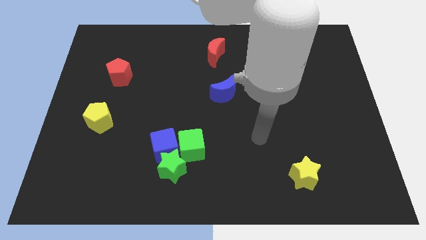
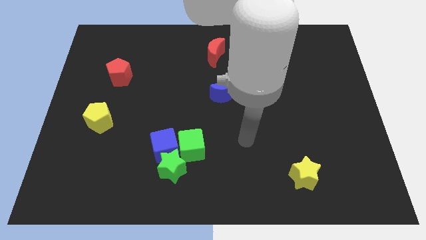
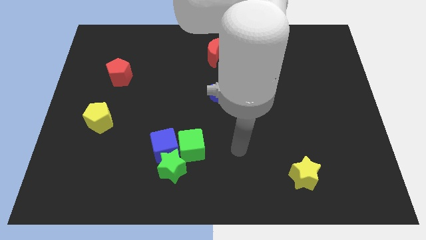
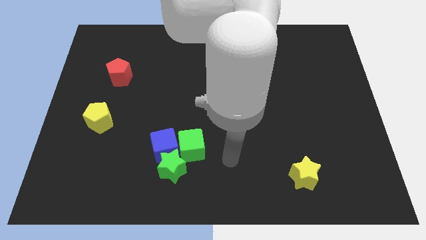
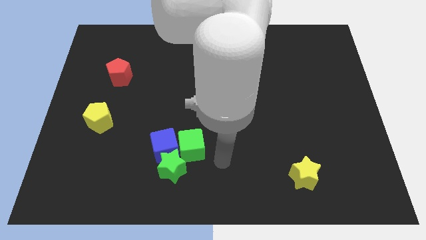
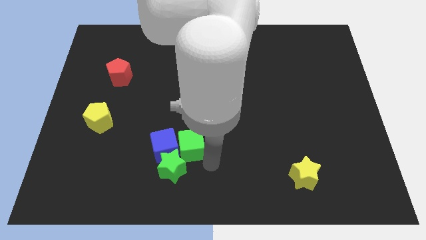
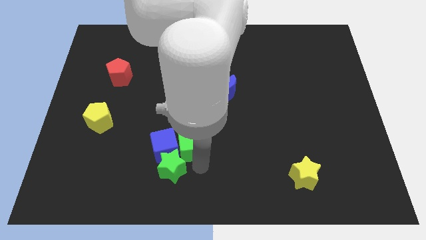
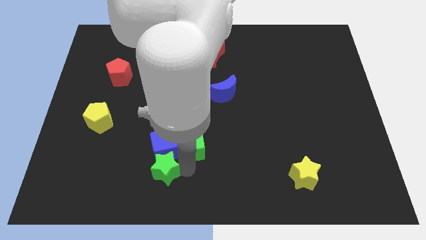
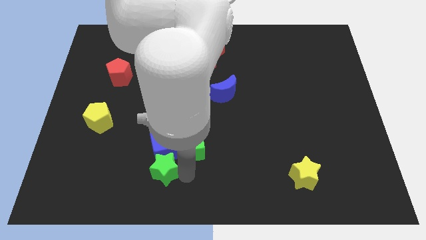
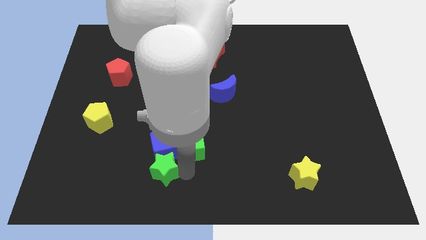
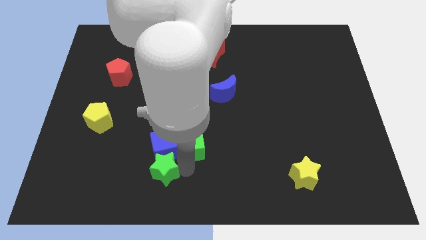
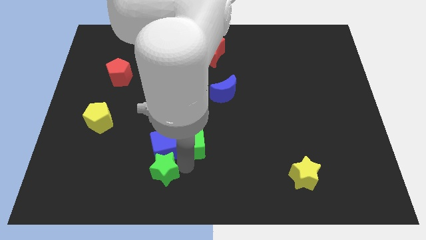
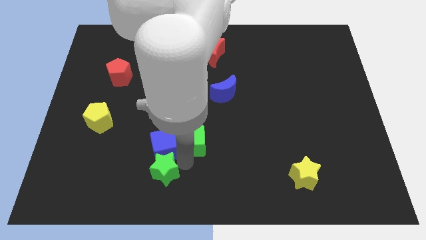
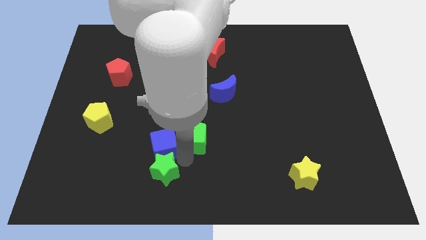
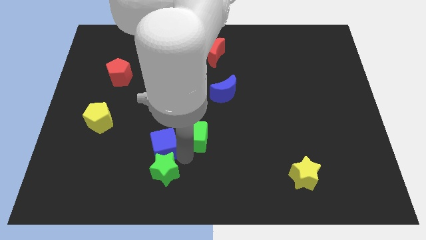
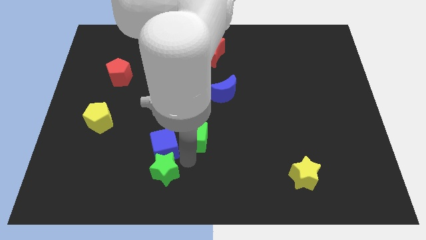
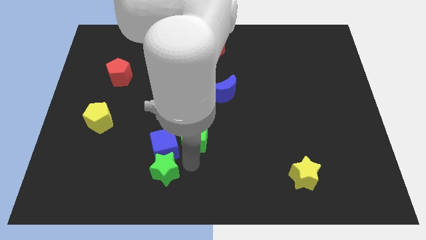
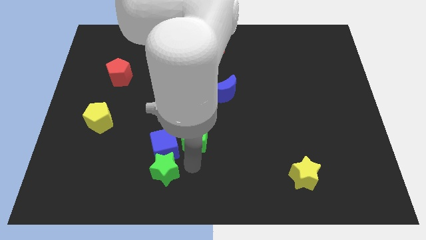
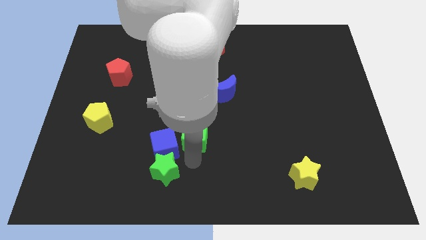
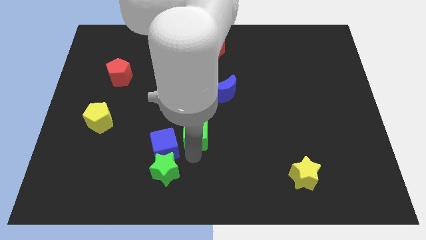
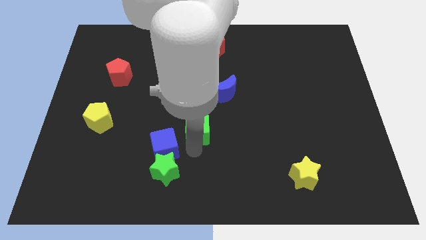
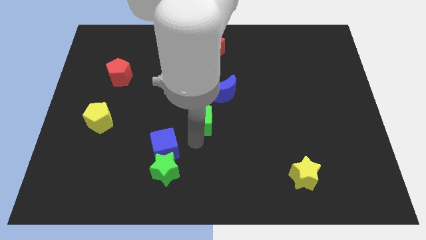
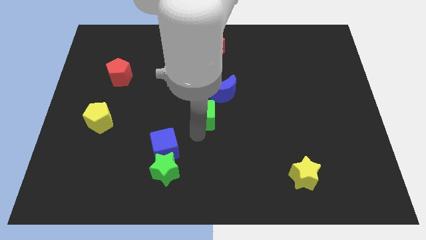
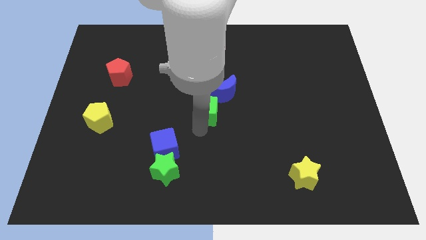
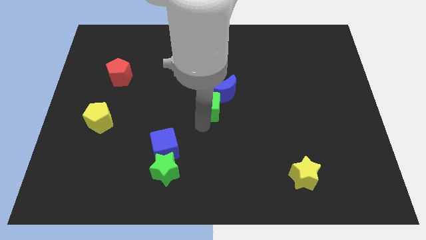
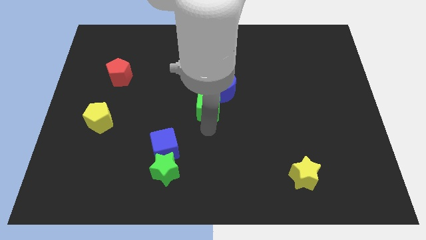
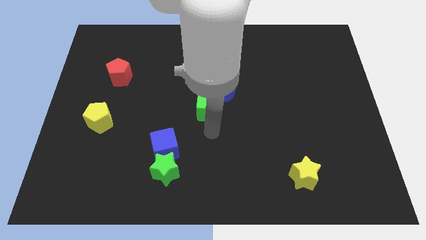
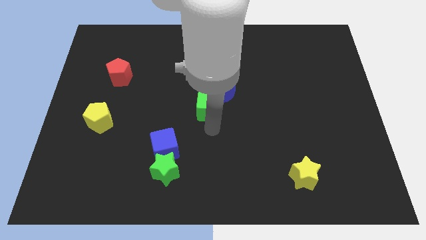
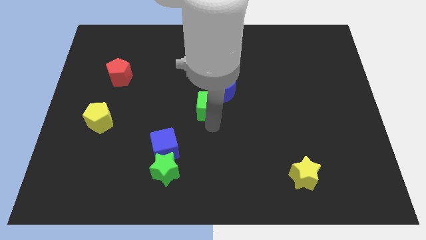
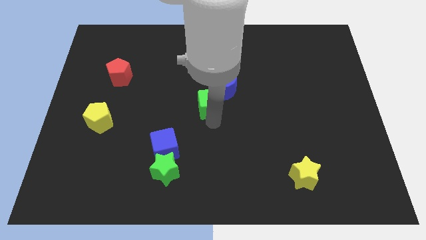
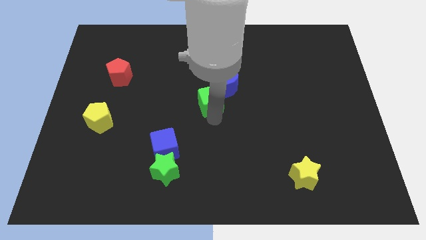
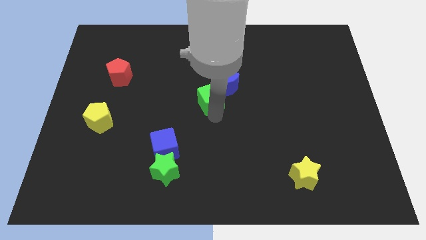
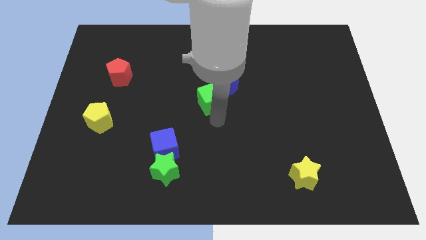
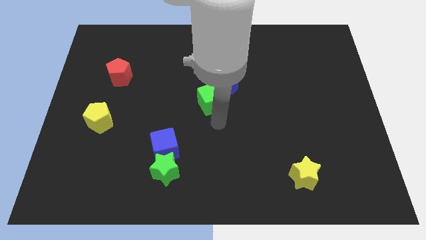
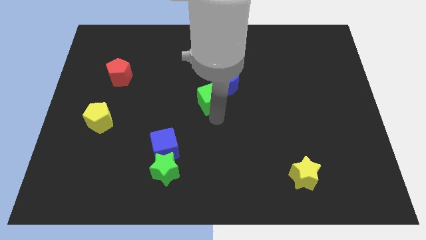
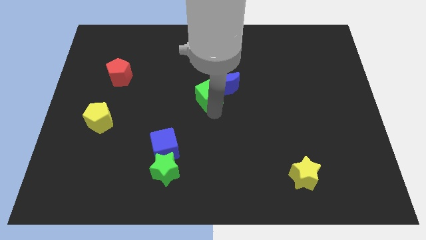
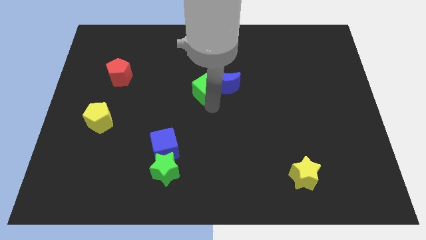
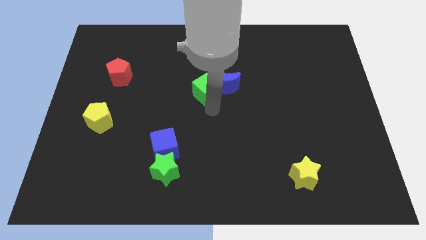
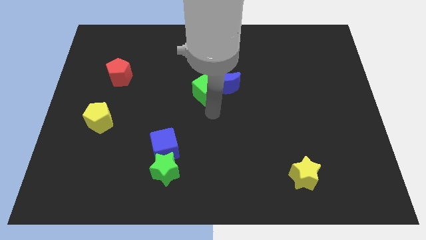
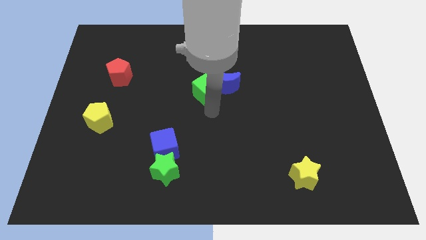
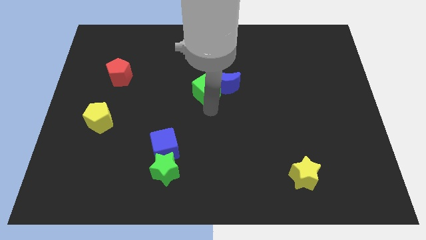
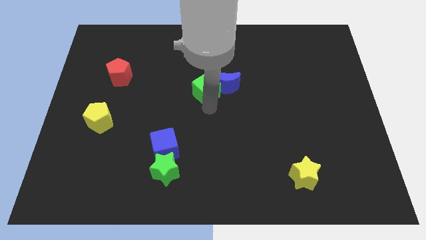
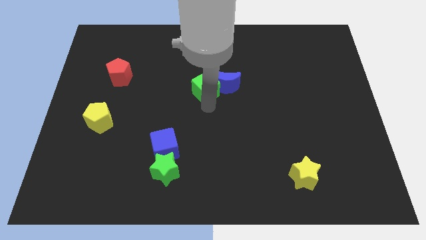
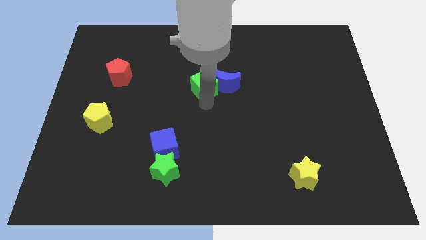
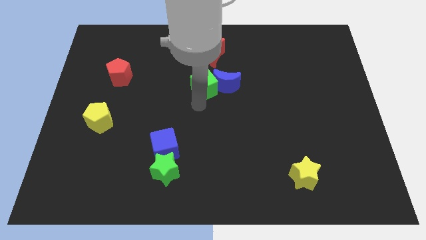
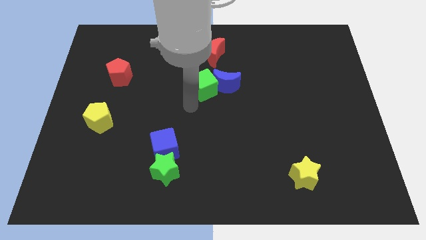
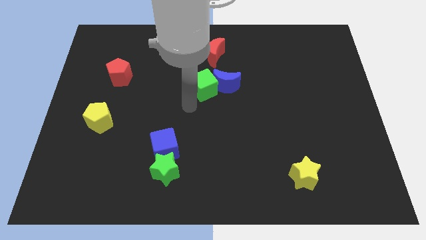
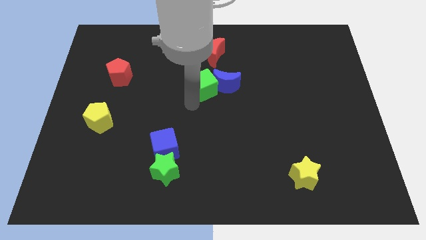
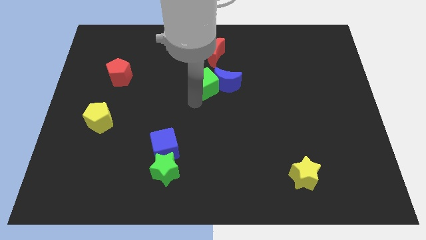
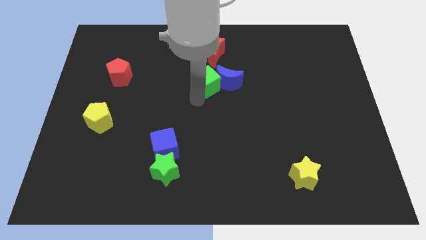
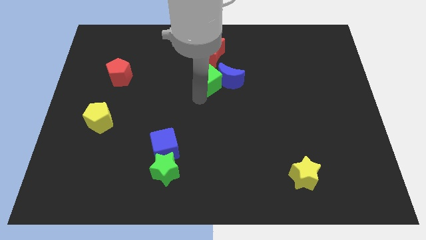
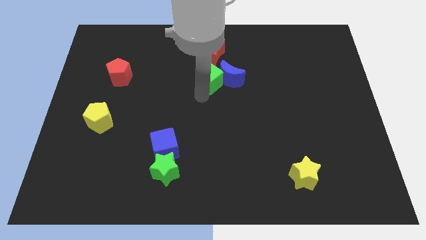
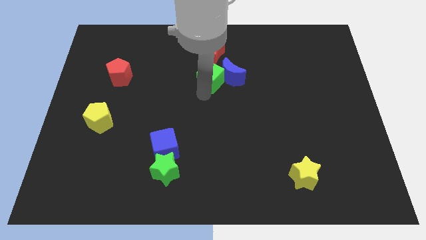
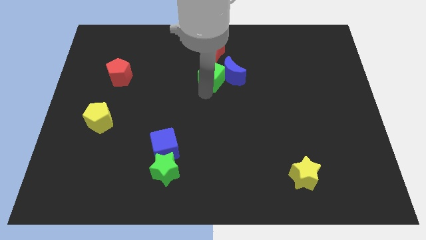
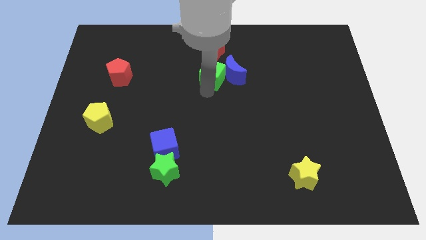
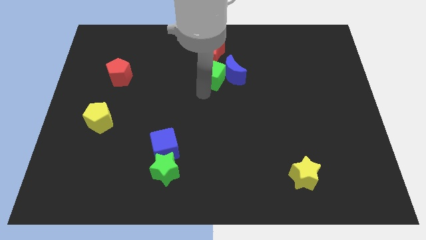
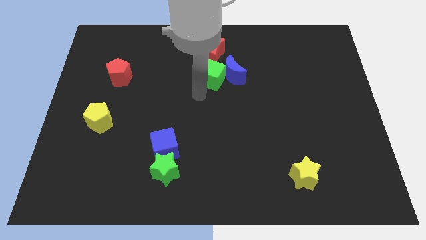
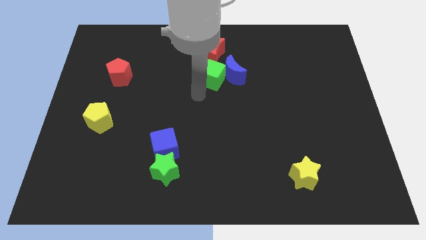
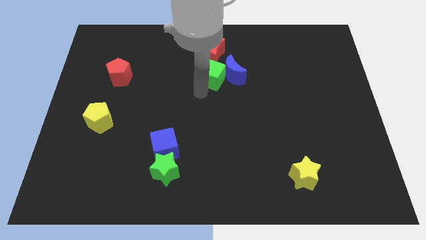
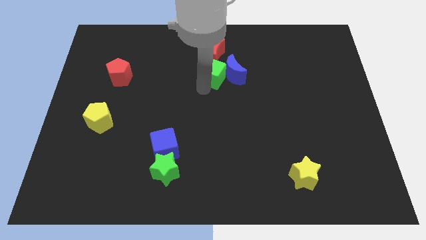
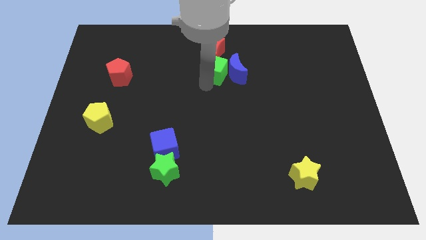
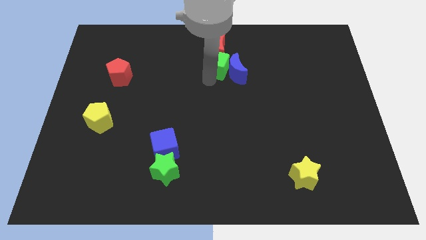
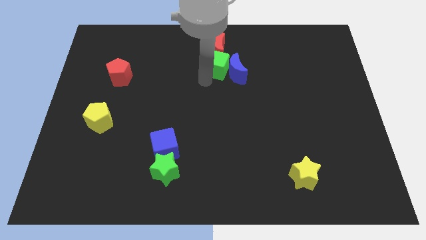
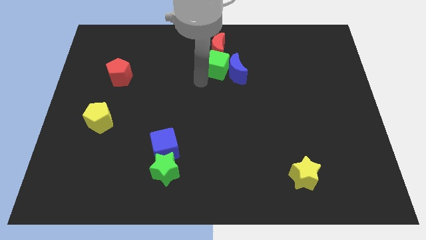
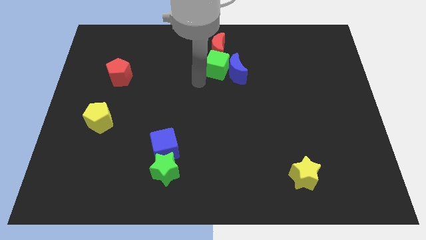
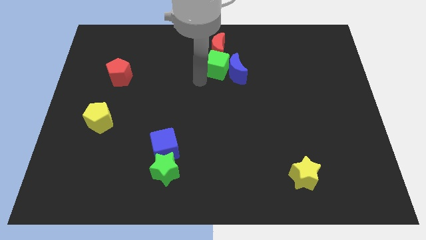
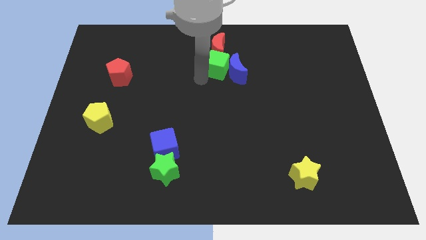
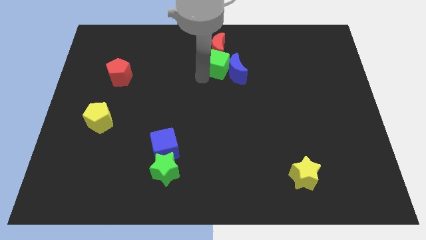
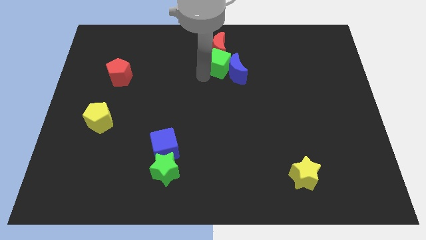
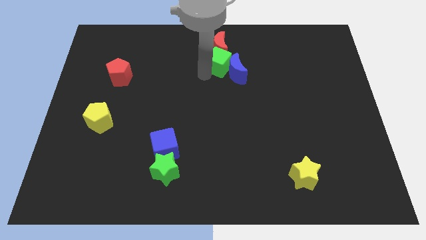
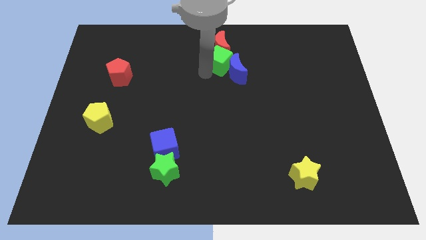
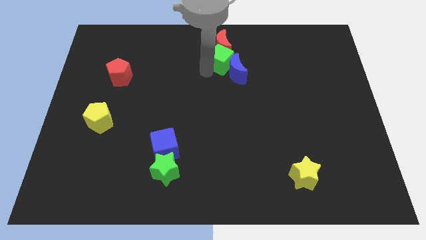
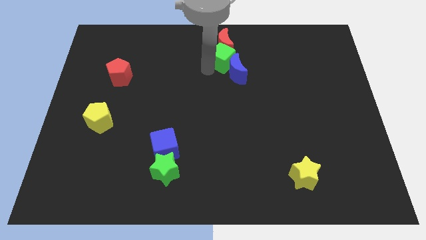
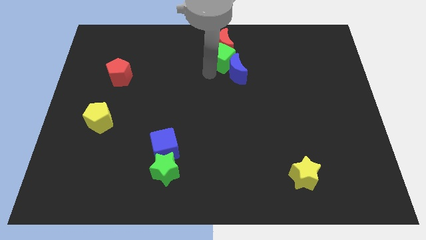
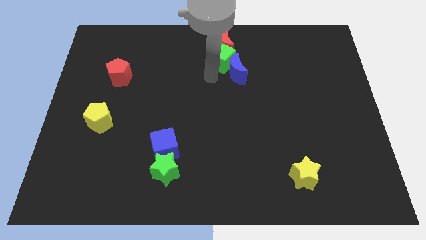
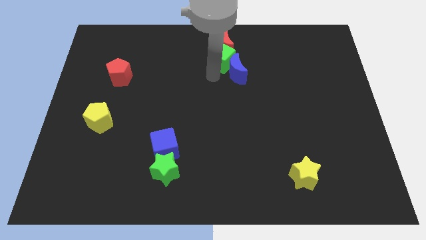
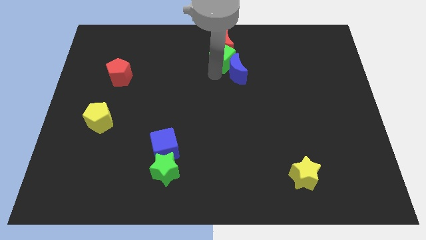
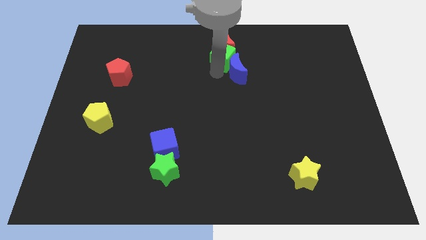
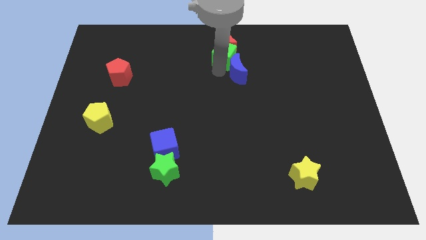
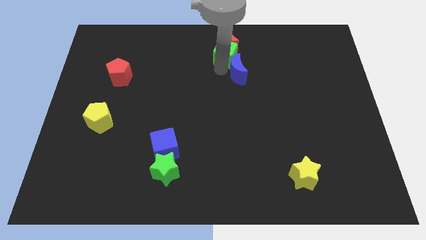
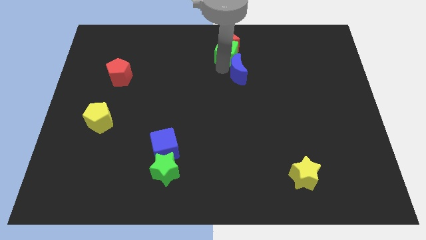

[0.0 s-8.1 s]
move the green cube to the top side
